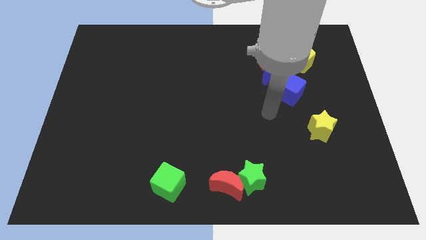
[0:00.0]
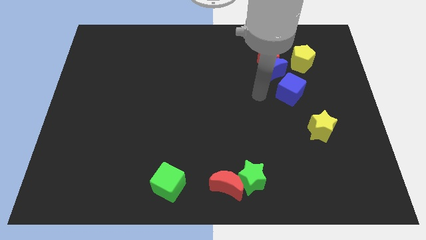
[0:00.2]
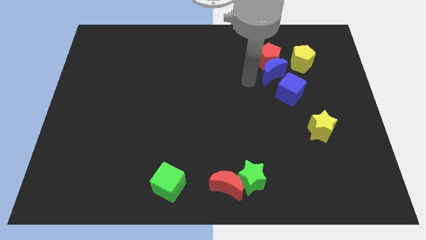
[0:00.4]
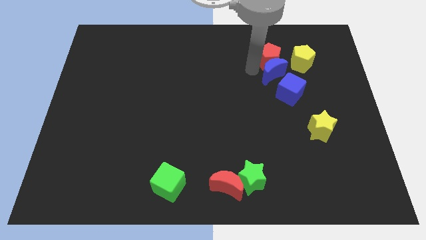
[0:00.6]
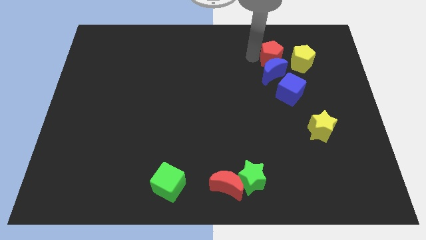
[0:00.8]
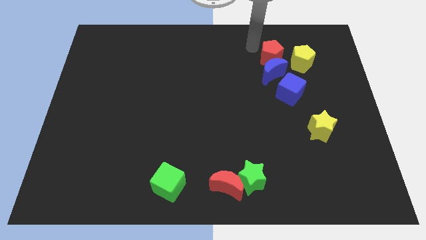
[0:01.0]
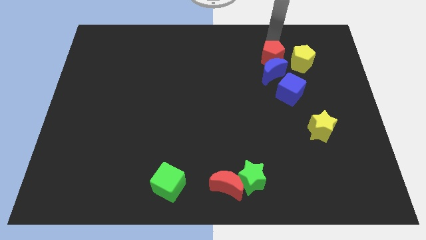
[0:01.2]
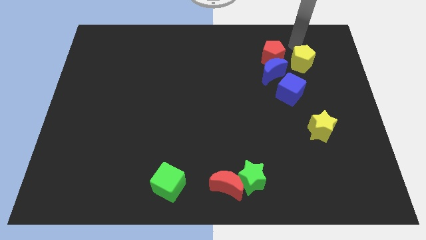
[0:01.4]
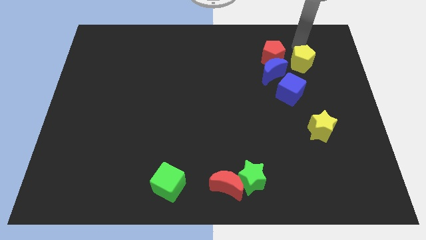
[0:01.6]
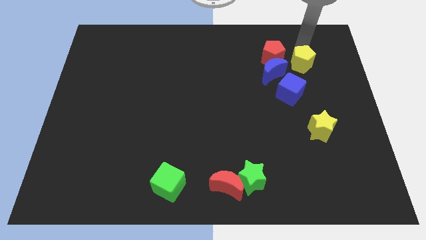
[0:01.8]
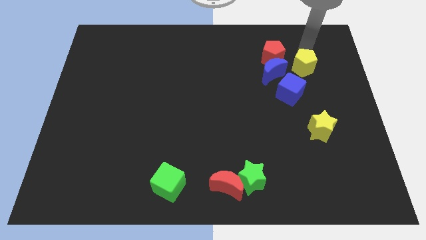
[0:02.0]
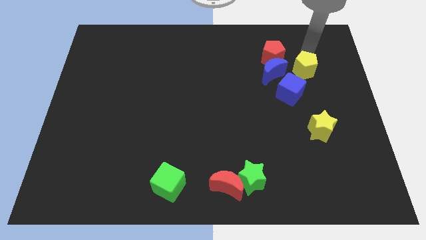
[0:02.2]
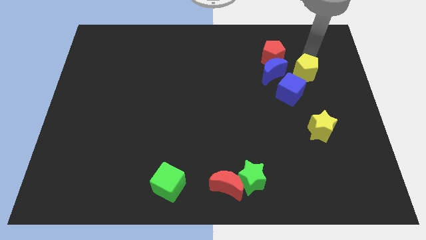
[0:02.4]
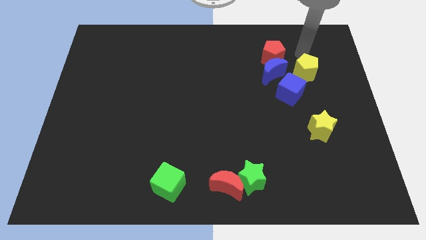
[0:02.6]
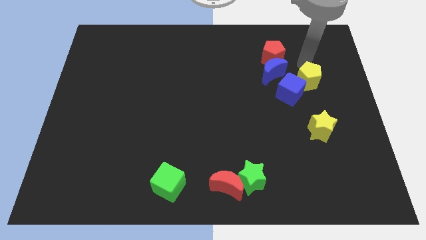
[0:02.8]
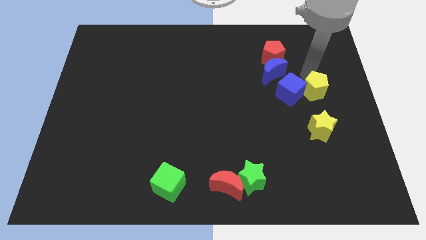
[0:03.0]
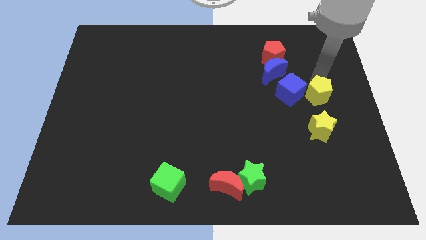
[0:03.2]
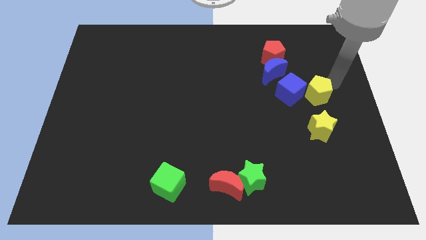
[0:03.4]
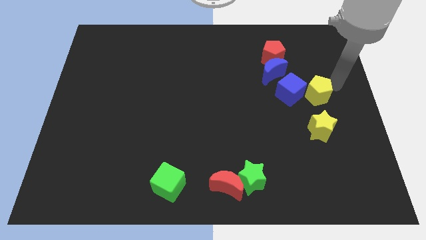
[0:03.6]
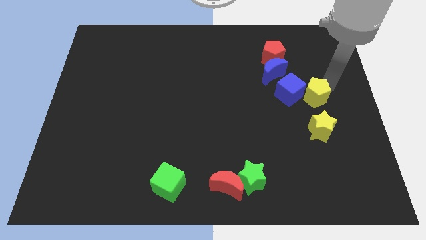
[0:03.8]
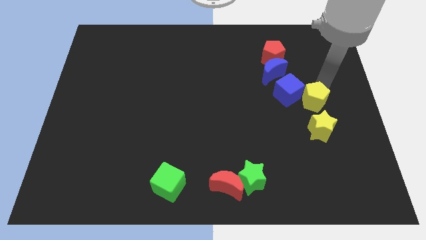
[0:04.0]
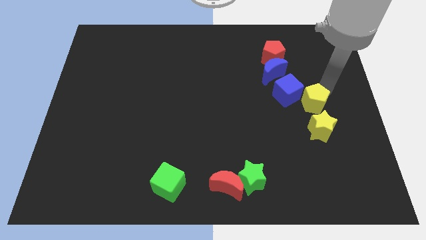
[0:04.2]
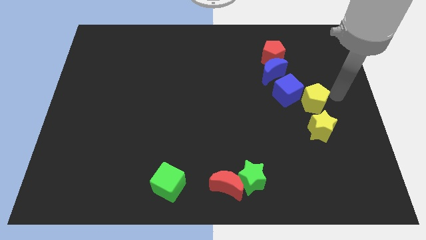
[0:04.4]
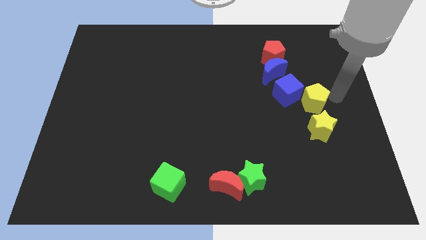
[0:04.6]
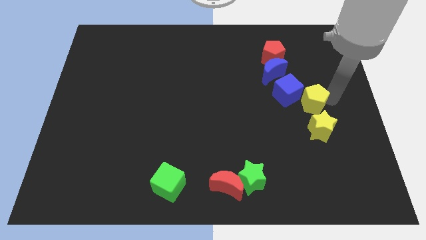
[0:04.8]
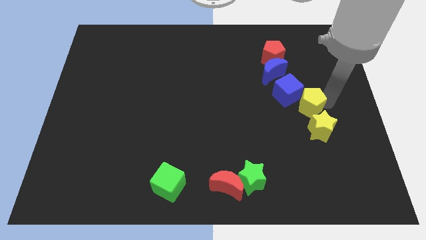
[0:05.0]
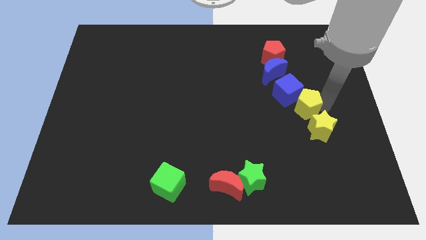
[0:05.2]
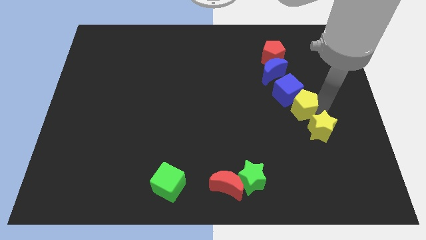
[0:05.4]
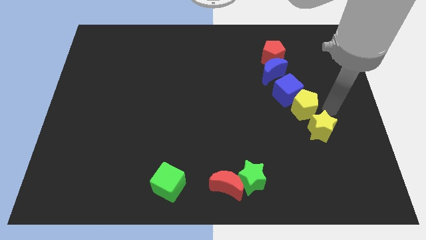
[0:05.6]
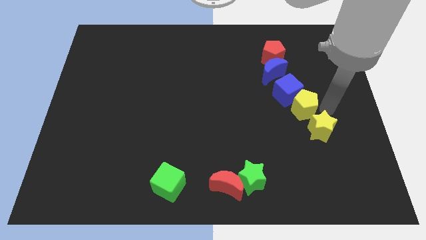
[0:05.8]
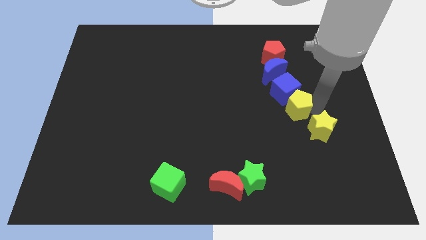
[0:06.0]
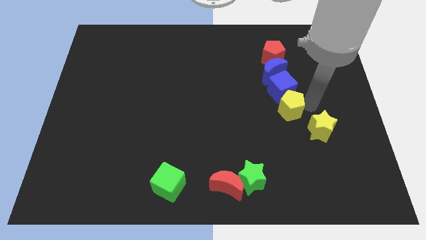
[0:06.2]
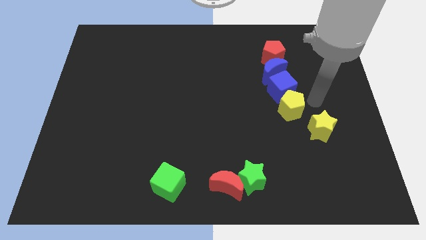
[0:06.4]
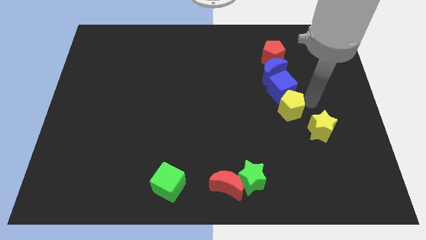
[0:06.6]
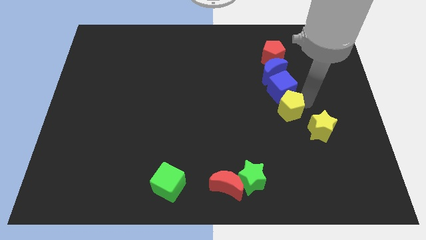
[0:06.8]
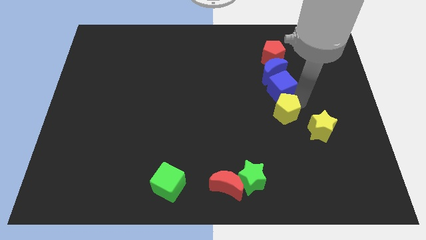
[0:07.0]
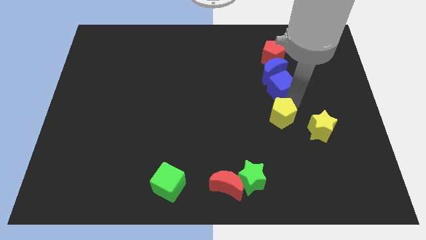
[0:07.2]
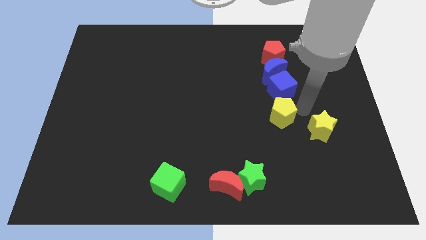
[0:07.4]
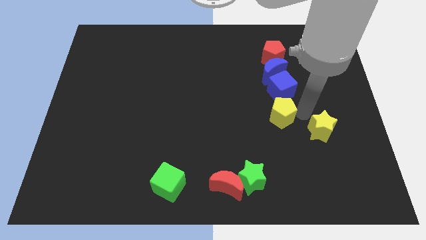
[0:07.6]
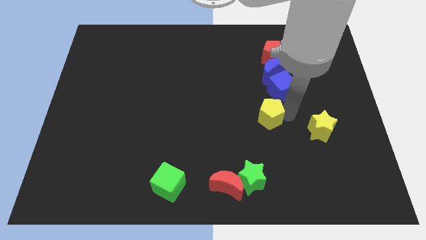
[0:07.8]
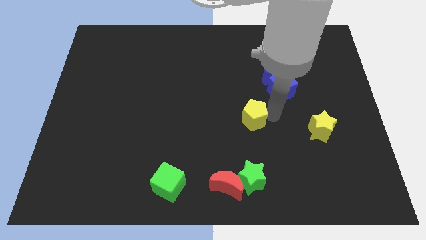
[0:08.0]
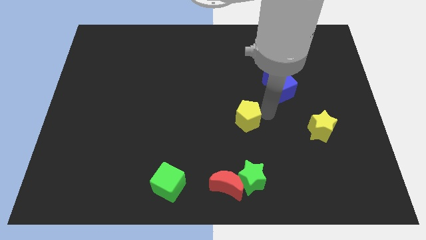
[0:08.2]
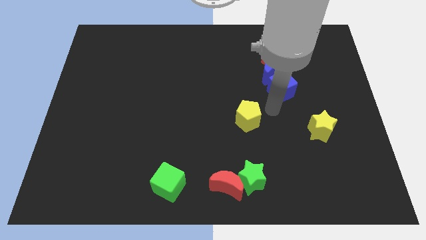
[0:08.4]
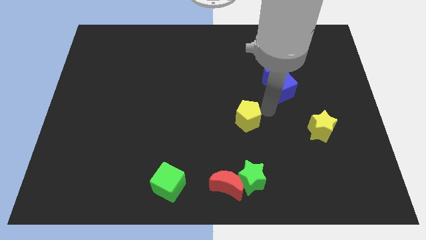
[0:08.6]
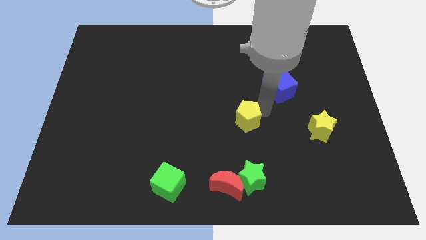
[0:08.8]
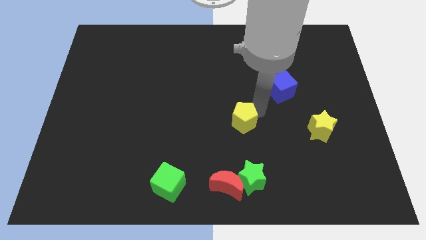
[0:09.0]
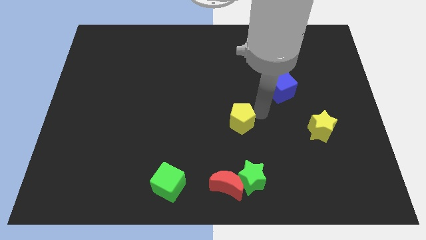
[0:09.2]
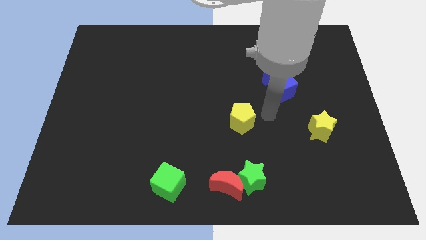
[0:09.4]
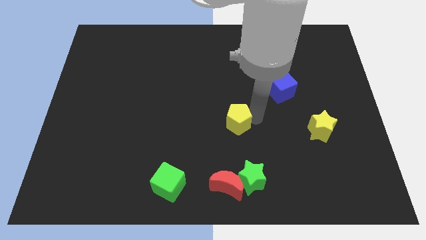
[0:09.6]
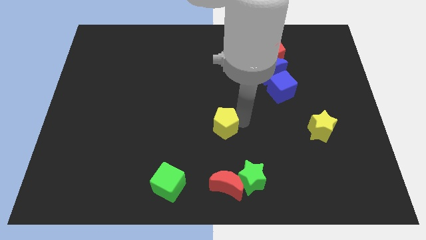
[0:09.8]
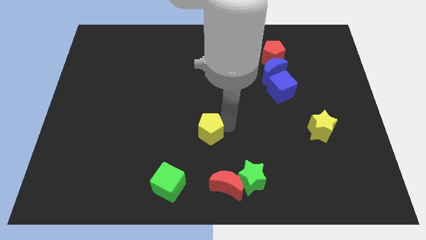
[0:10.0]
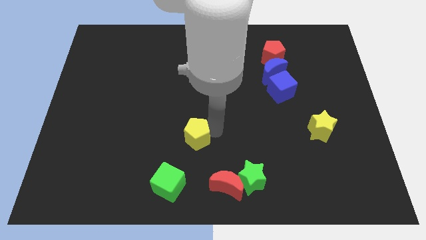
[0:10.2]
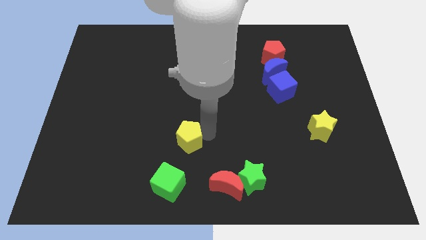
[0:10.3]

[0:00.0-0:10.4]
slide the yellow pentagon to the top side of the green cube

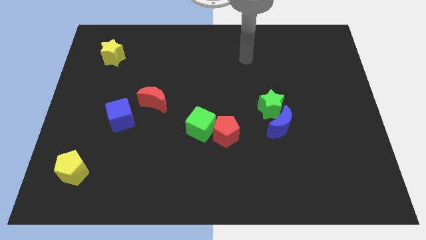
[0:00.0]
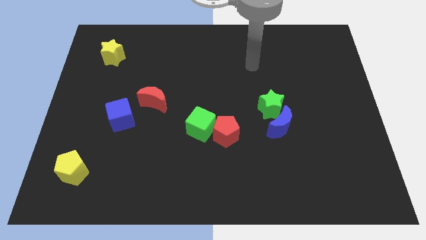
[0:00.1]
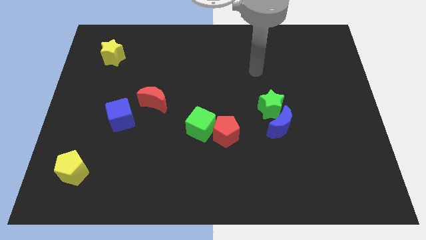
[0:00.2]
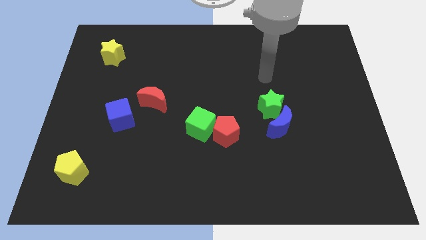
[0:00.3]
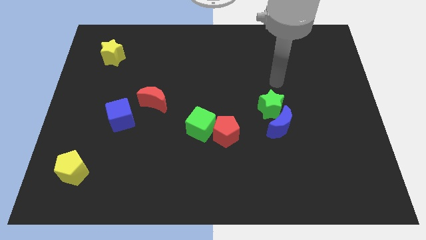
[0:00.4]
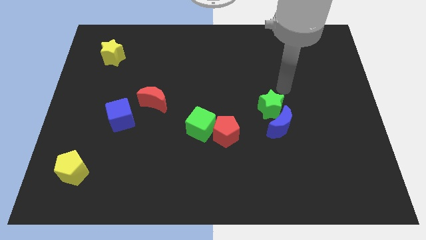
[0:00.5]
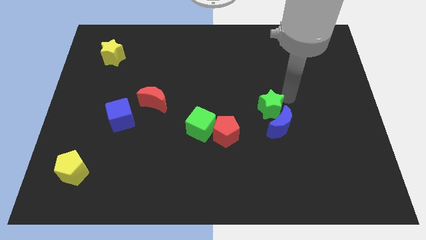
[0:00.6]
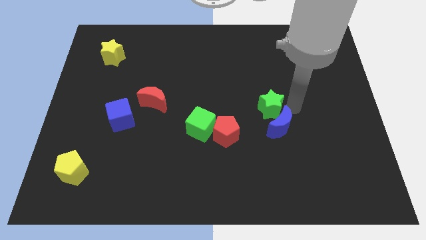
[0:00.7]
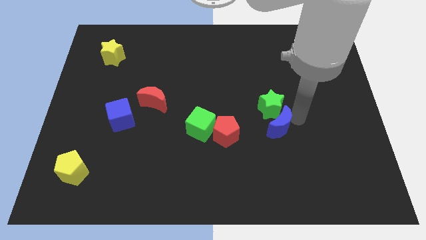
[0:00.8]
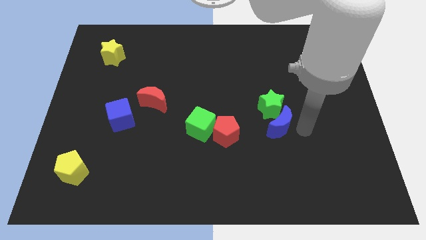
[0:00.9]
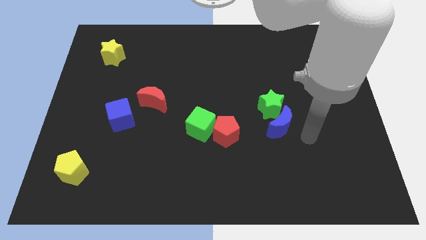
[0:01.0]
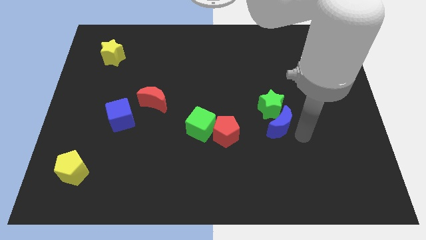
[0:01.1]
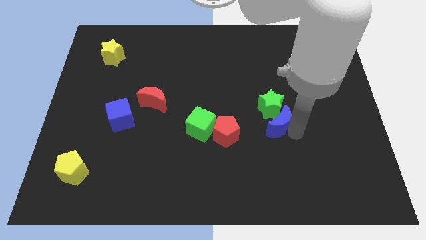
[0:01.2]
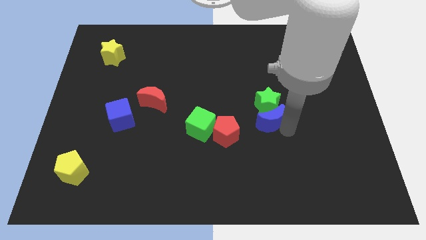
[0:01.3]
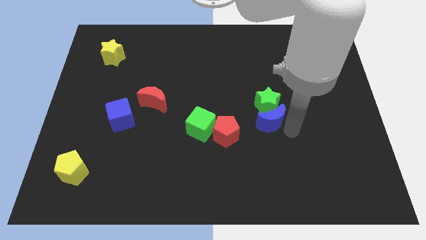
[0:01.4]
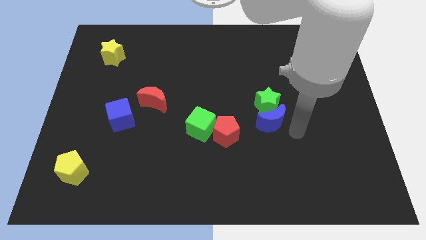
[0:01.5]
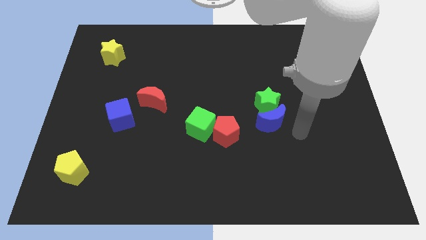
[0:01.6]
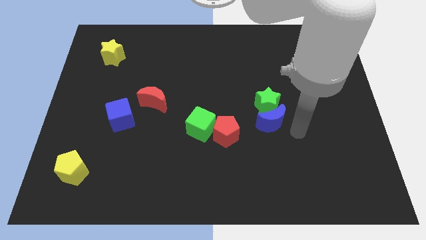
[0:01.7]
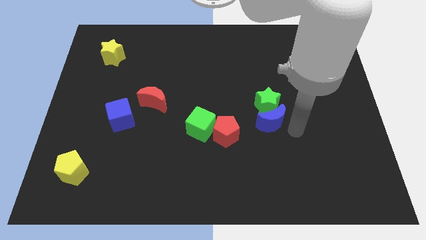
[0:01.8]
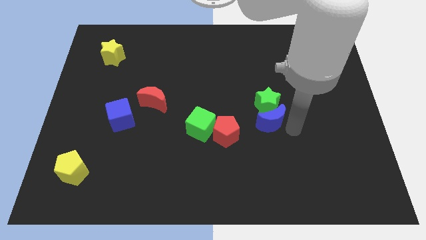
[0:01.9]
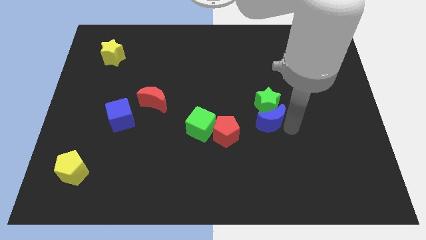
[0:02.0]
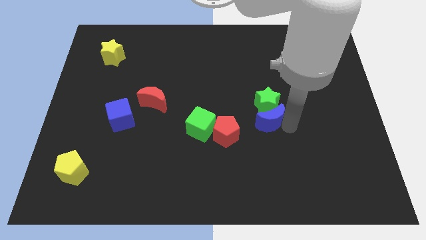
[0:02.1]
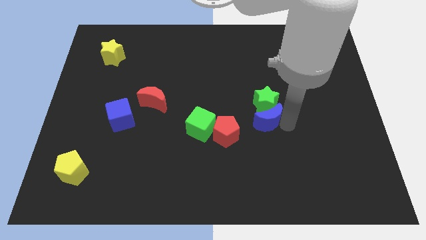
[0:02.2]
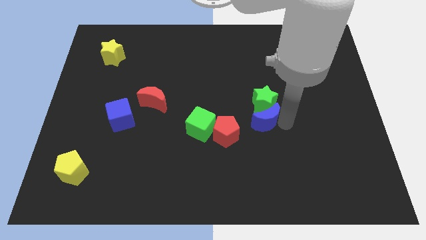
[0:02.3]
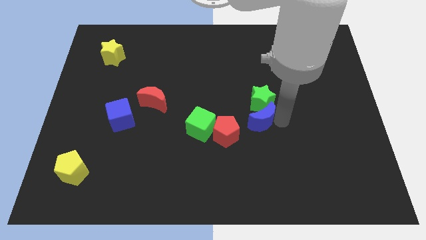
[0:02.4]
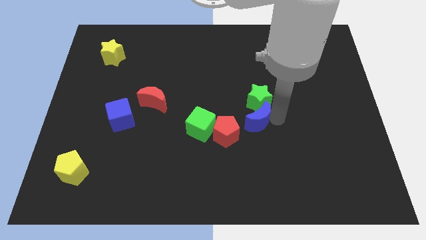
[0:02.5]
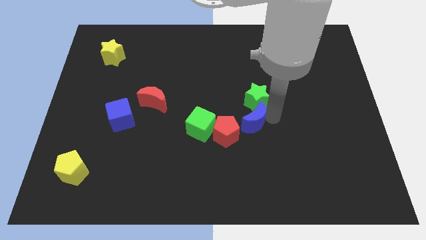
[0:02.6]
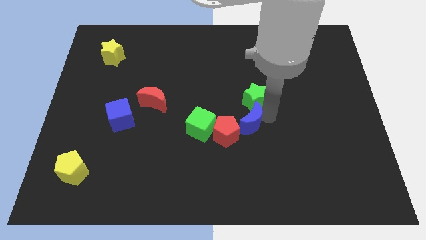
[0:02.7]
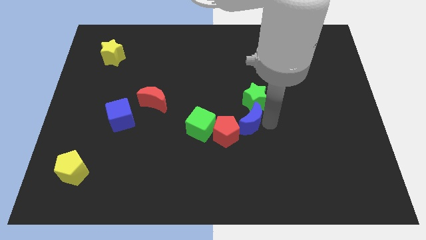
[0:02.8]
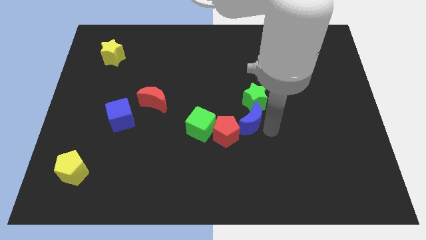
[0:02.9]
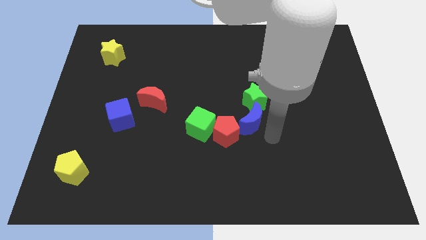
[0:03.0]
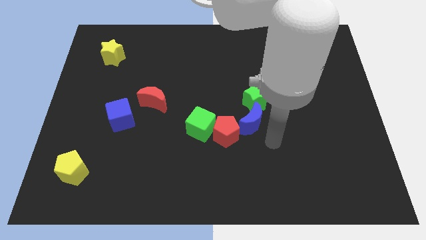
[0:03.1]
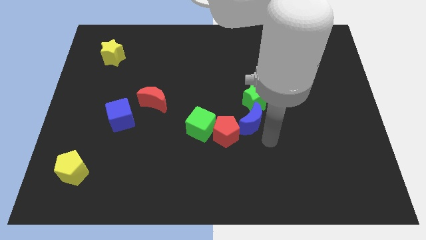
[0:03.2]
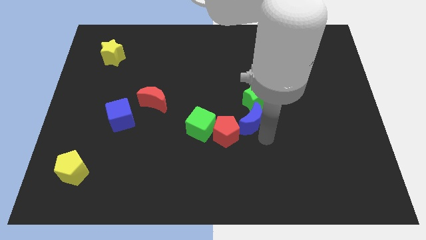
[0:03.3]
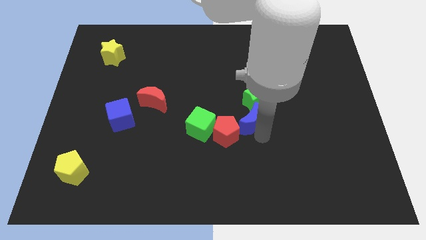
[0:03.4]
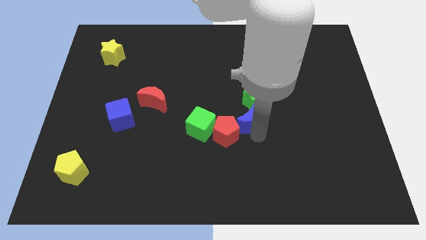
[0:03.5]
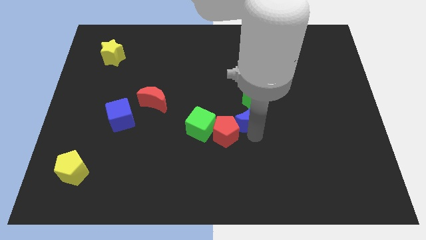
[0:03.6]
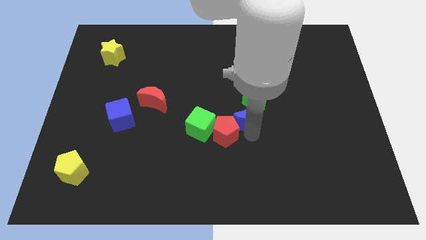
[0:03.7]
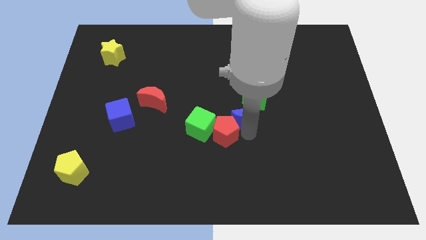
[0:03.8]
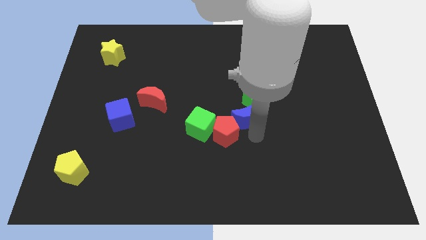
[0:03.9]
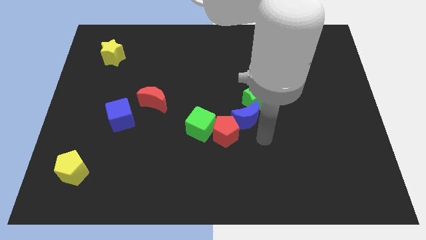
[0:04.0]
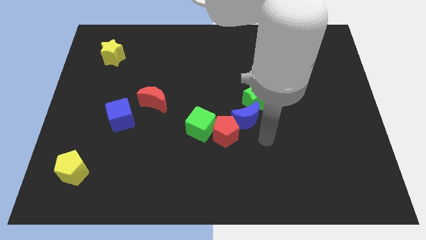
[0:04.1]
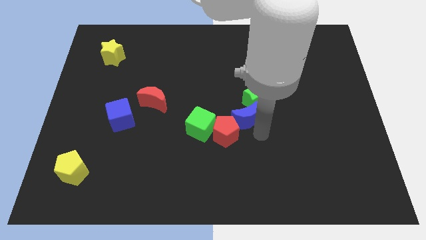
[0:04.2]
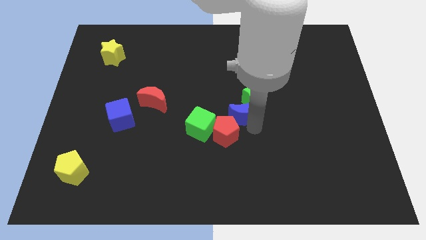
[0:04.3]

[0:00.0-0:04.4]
move the blue moon to the top side of the red pentagon
